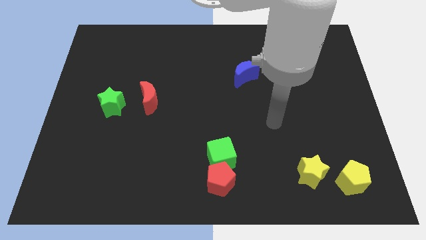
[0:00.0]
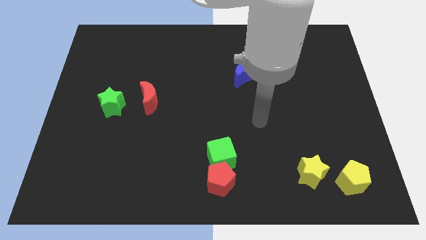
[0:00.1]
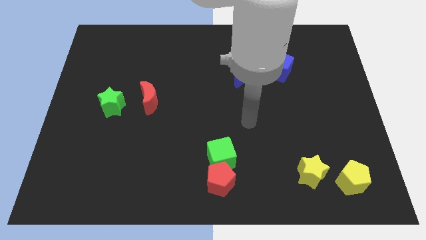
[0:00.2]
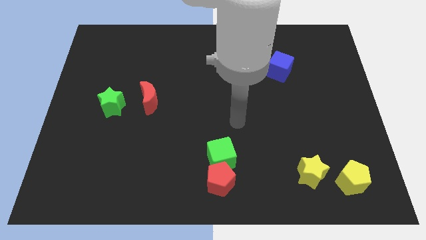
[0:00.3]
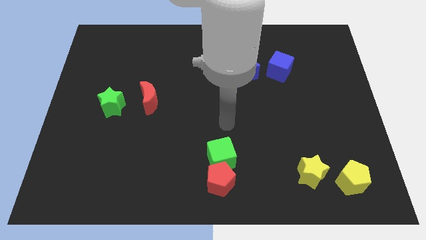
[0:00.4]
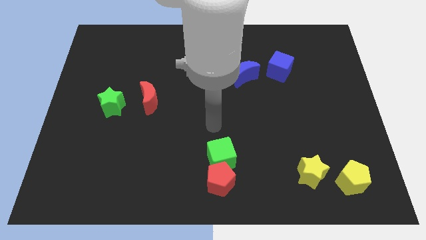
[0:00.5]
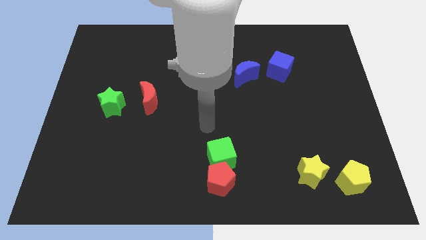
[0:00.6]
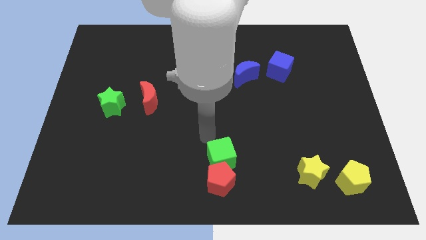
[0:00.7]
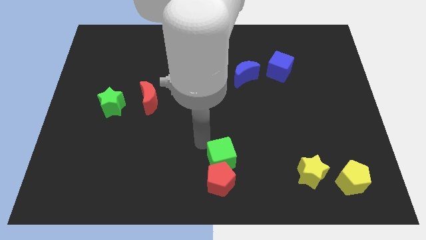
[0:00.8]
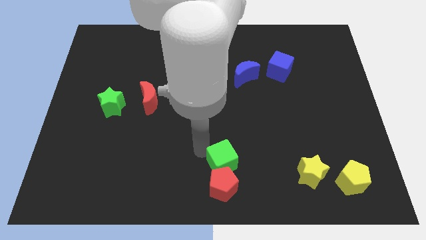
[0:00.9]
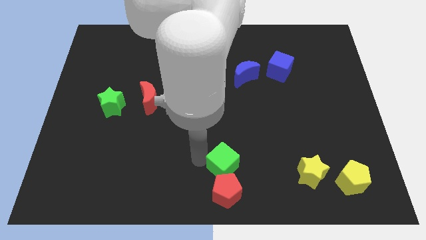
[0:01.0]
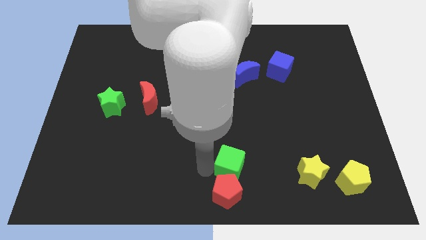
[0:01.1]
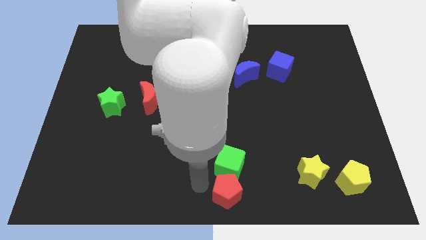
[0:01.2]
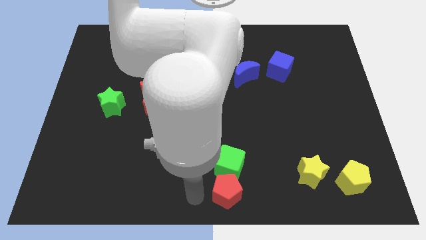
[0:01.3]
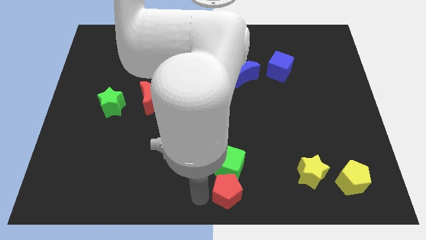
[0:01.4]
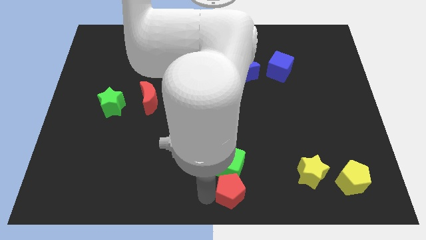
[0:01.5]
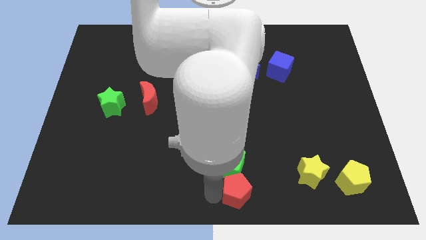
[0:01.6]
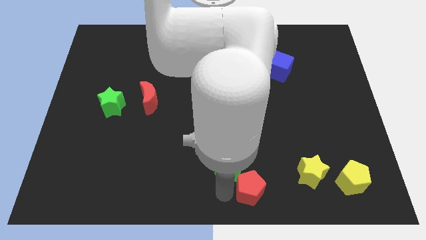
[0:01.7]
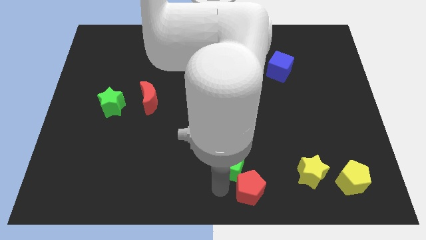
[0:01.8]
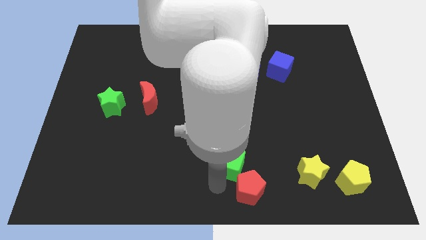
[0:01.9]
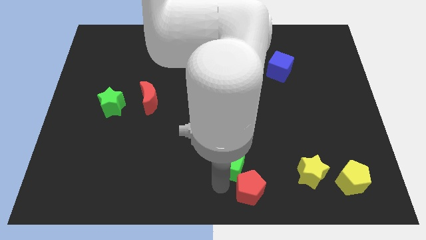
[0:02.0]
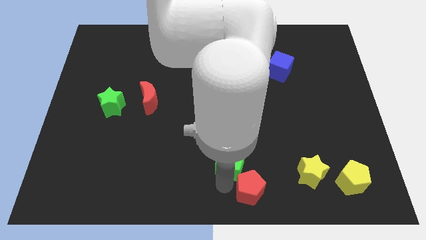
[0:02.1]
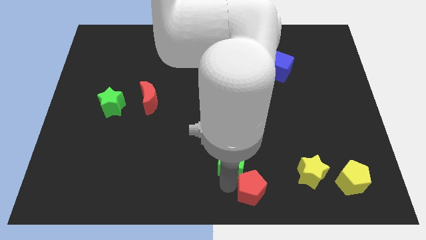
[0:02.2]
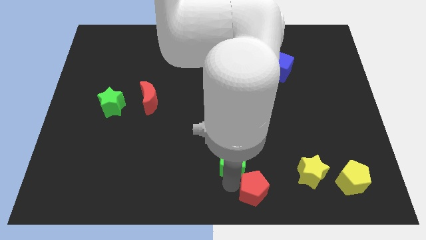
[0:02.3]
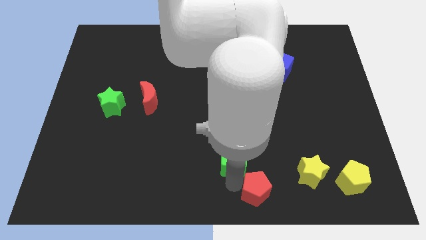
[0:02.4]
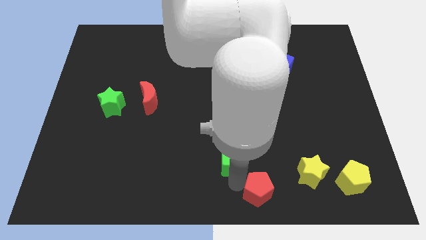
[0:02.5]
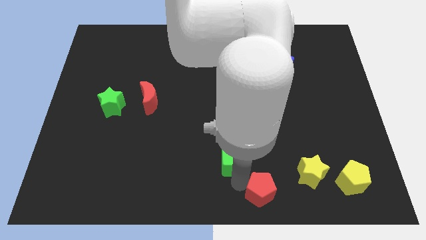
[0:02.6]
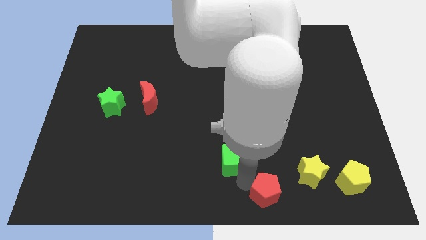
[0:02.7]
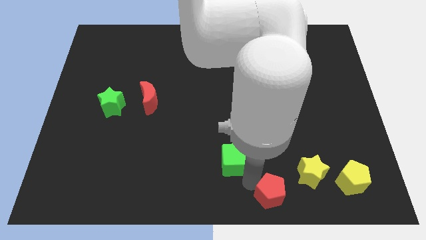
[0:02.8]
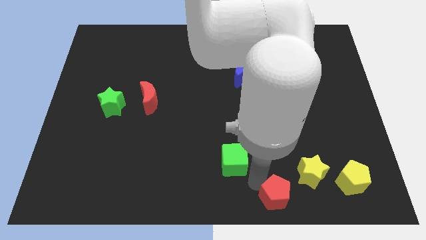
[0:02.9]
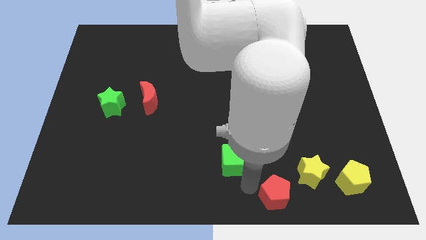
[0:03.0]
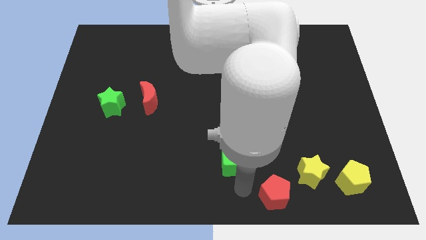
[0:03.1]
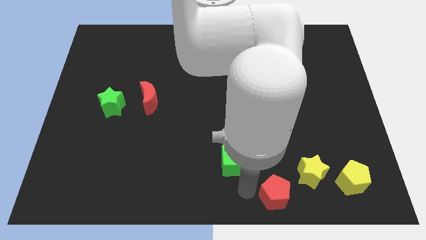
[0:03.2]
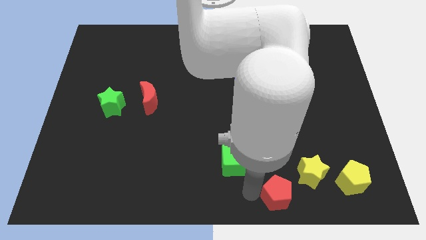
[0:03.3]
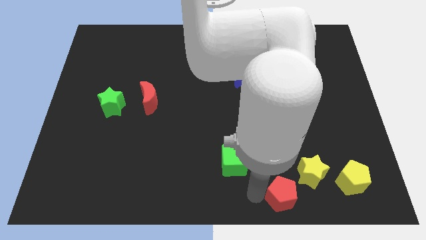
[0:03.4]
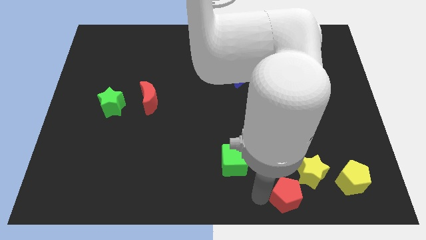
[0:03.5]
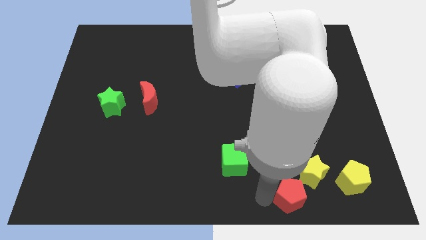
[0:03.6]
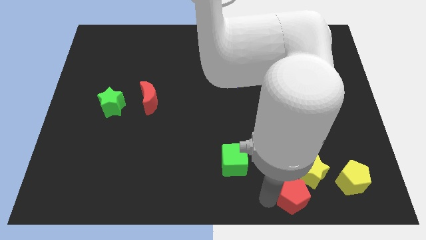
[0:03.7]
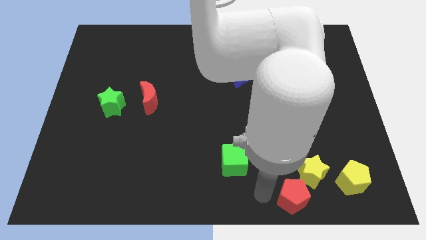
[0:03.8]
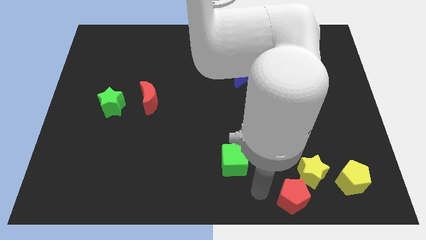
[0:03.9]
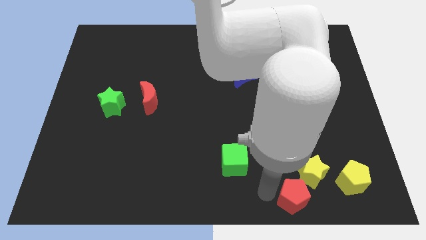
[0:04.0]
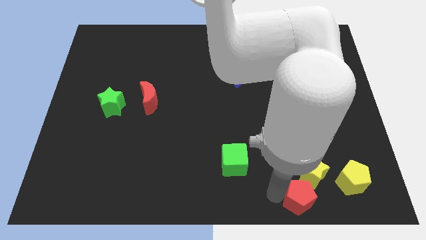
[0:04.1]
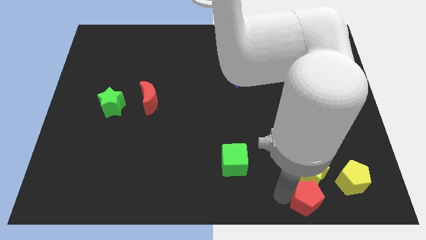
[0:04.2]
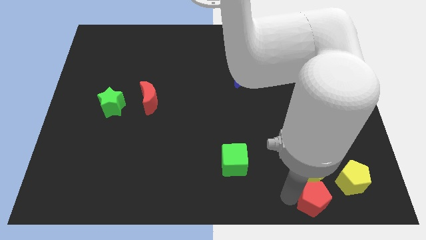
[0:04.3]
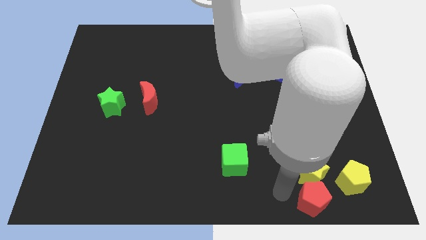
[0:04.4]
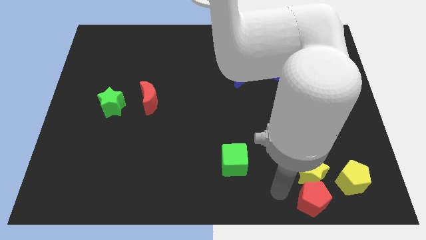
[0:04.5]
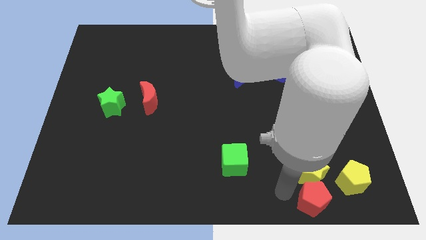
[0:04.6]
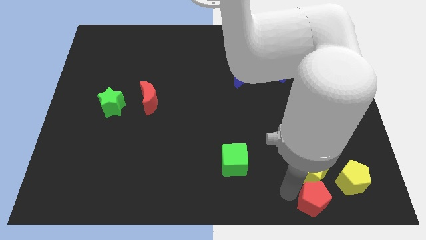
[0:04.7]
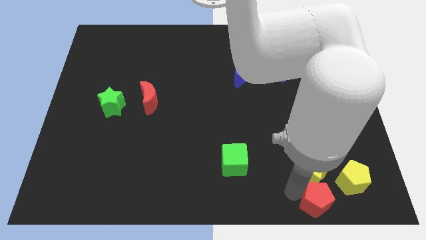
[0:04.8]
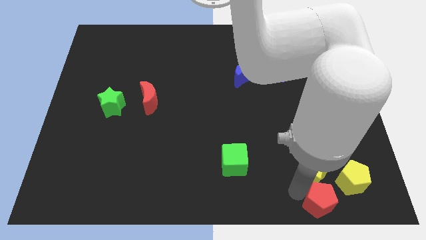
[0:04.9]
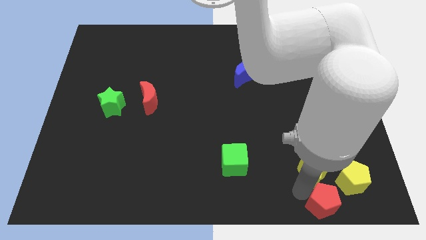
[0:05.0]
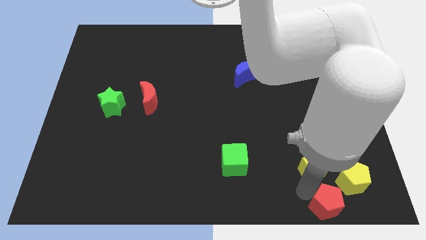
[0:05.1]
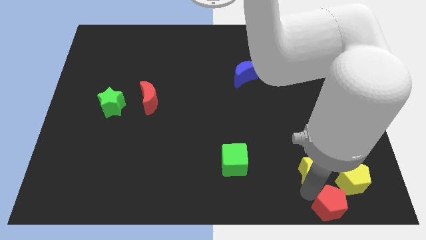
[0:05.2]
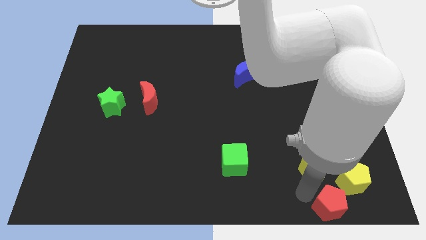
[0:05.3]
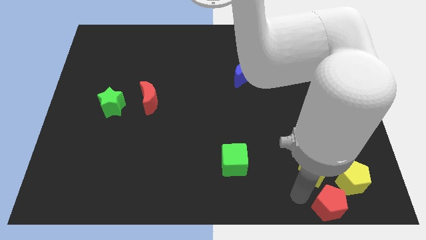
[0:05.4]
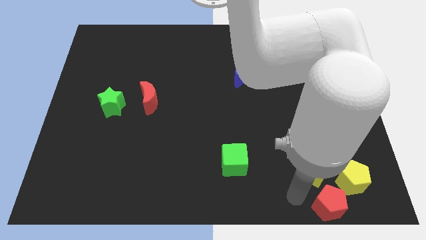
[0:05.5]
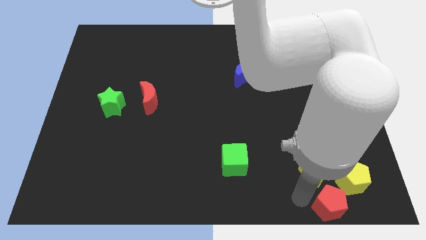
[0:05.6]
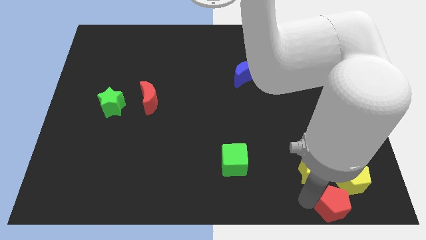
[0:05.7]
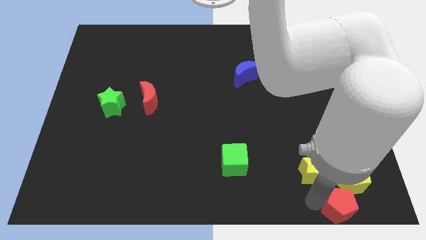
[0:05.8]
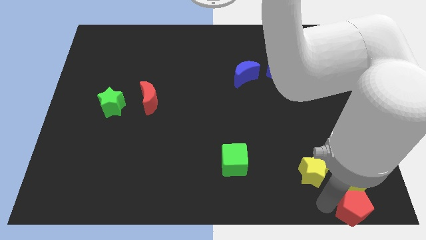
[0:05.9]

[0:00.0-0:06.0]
push the red pentagon to the bottom right

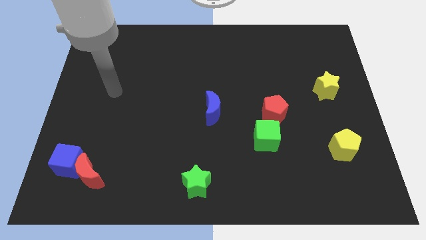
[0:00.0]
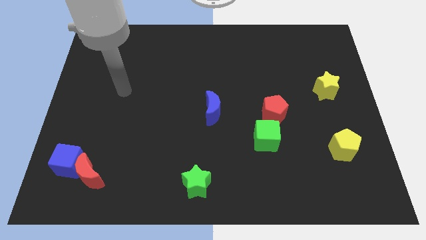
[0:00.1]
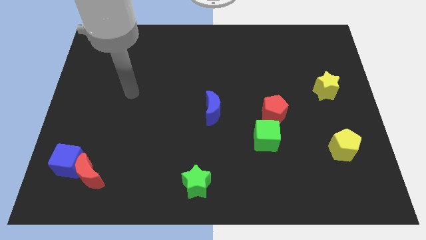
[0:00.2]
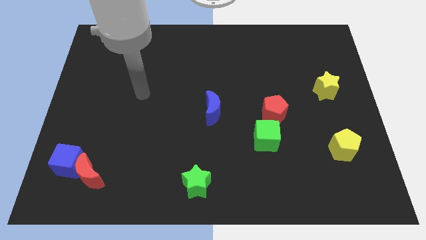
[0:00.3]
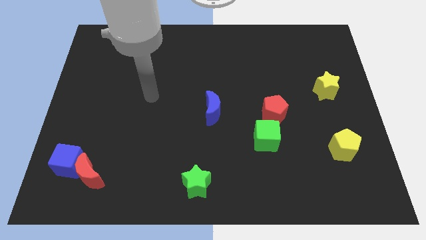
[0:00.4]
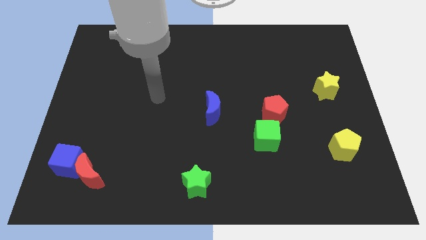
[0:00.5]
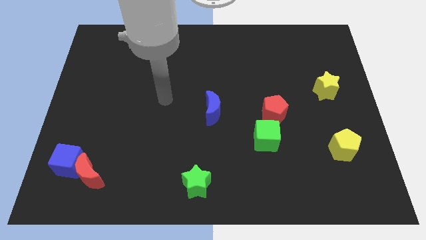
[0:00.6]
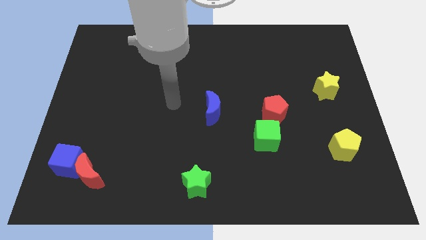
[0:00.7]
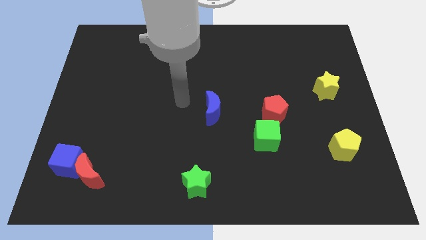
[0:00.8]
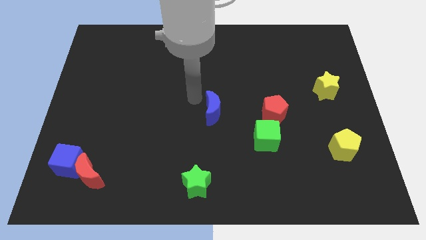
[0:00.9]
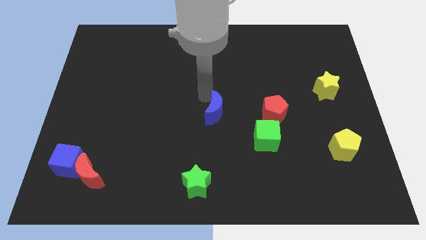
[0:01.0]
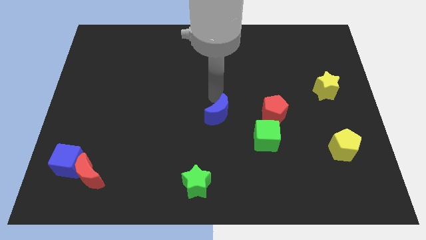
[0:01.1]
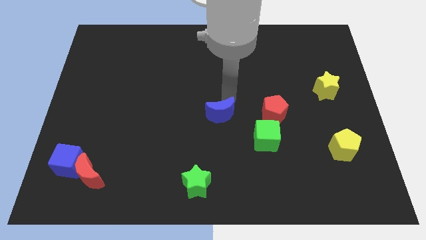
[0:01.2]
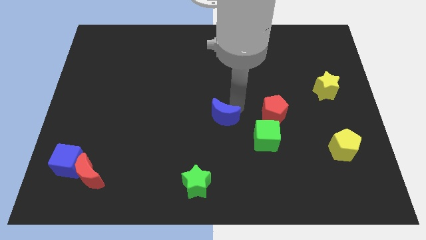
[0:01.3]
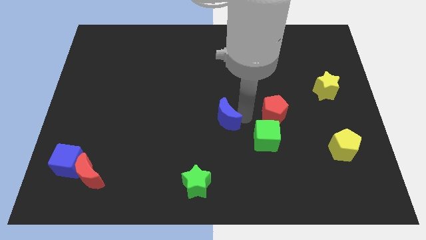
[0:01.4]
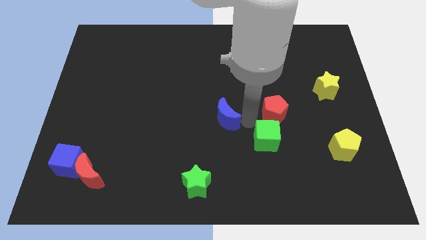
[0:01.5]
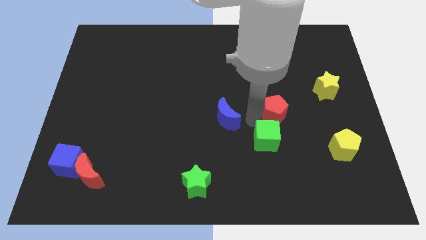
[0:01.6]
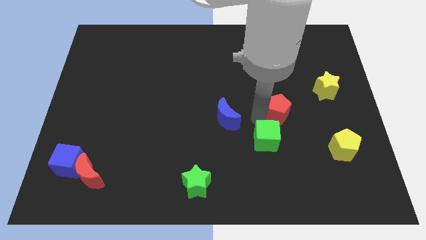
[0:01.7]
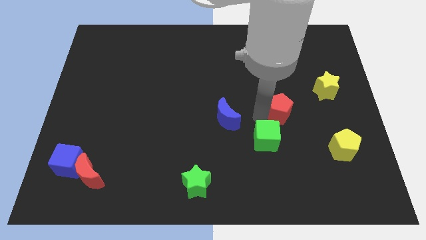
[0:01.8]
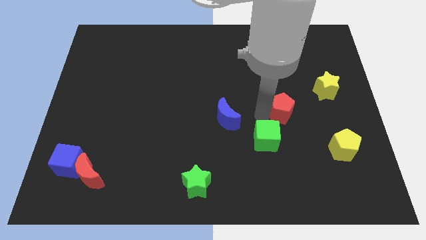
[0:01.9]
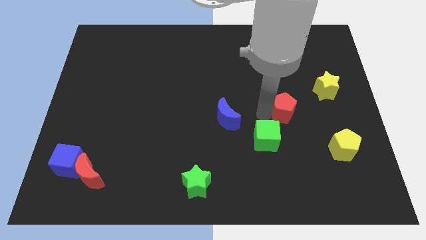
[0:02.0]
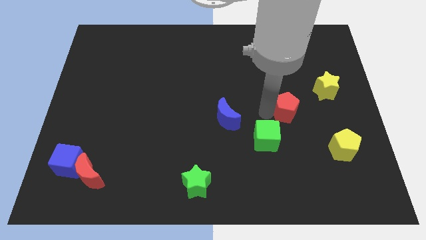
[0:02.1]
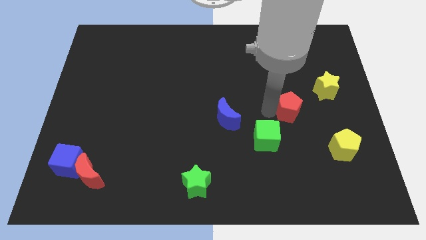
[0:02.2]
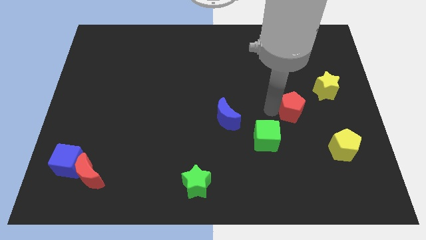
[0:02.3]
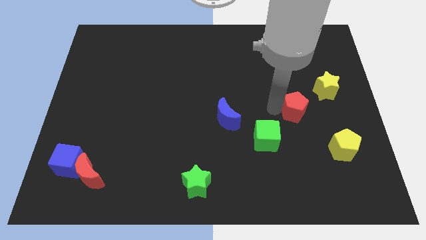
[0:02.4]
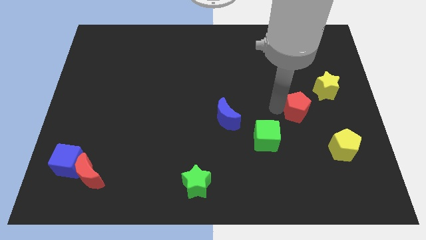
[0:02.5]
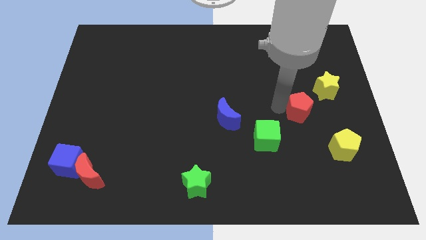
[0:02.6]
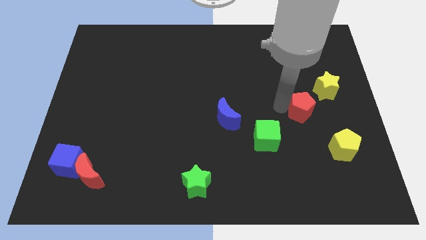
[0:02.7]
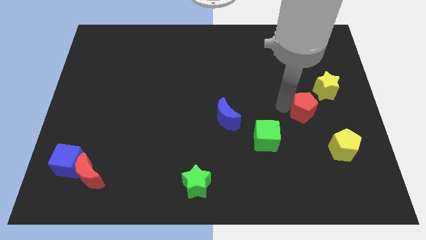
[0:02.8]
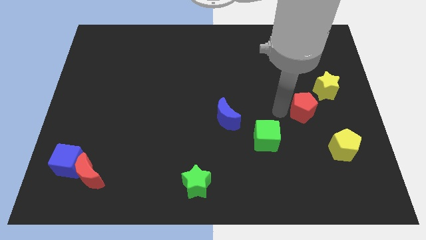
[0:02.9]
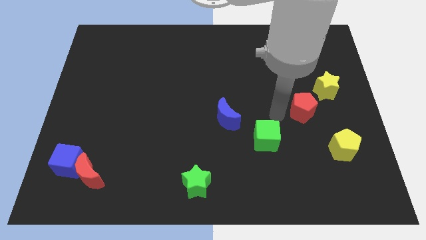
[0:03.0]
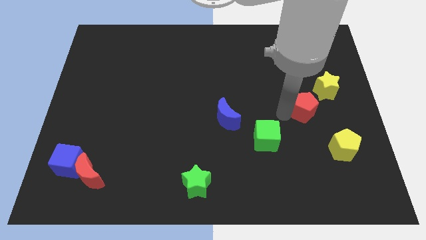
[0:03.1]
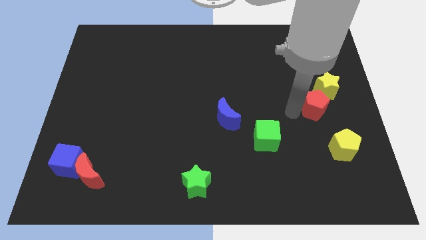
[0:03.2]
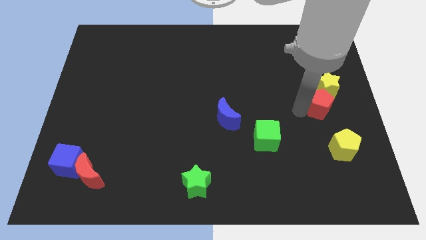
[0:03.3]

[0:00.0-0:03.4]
push the red pentagon to the right side
